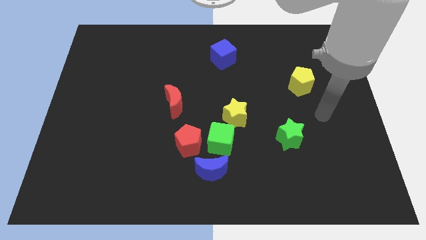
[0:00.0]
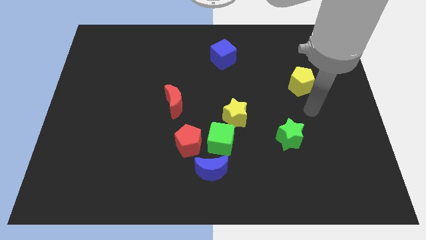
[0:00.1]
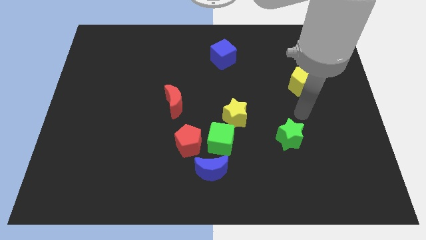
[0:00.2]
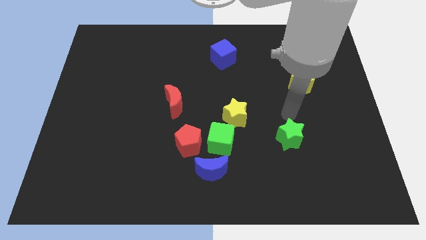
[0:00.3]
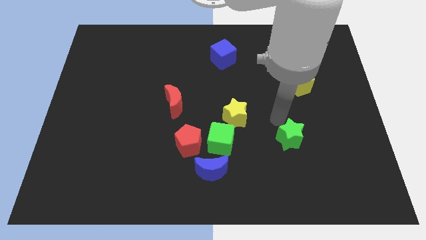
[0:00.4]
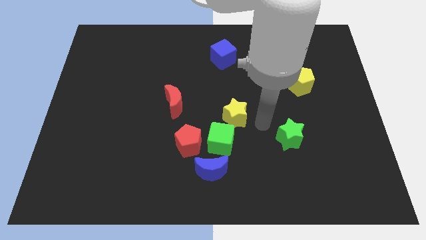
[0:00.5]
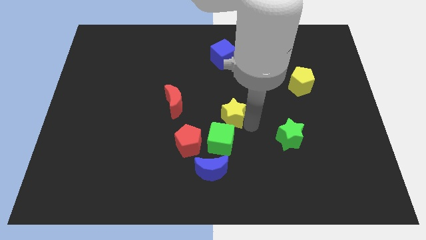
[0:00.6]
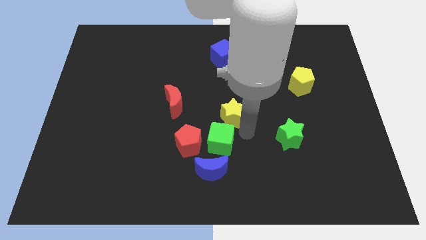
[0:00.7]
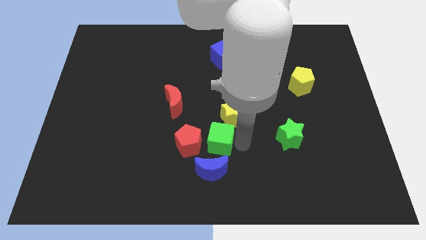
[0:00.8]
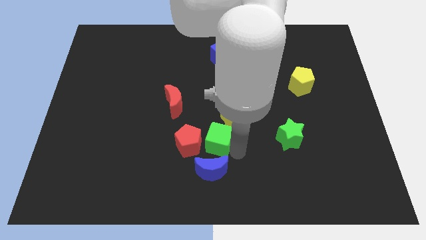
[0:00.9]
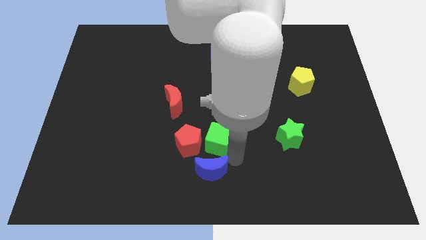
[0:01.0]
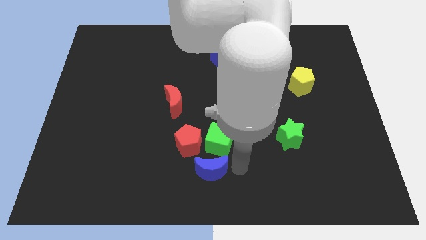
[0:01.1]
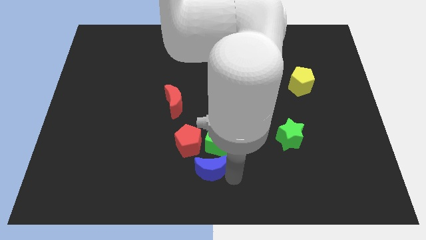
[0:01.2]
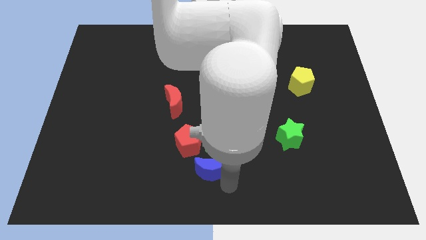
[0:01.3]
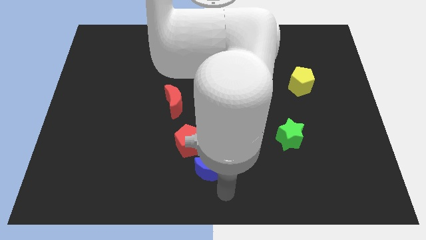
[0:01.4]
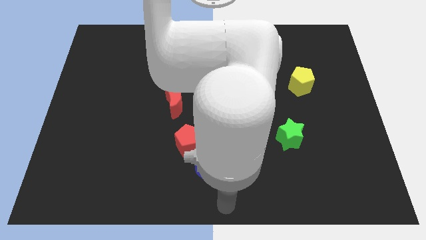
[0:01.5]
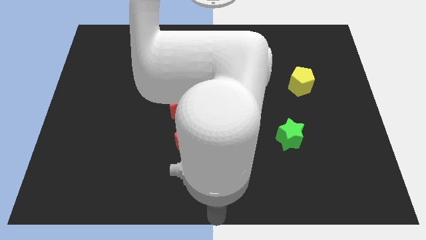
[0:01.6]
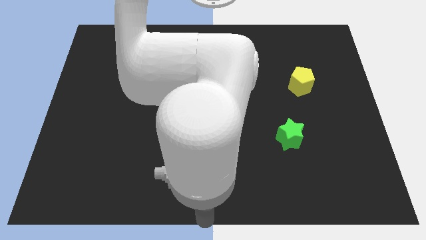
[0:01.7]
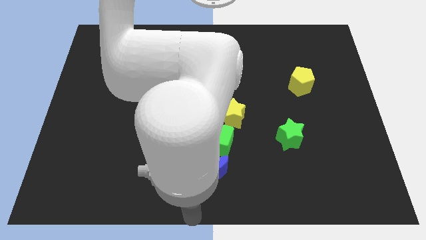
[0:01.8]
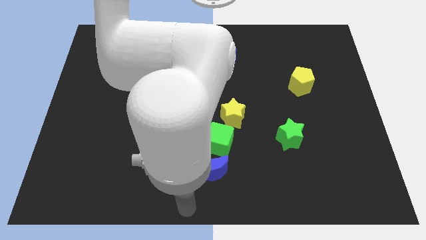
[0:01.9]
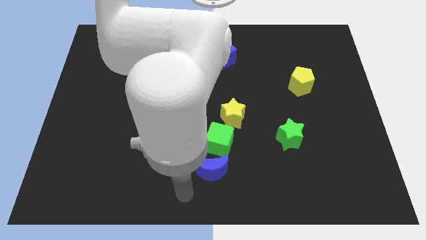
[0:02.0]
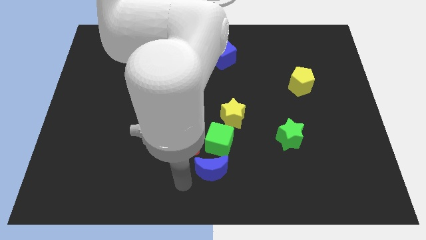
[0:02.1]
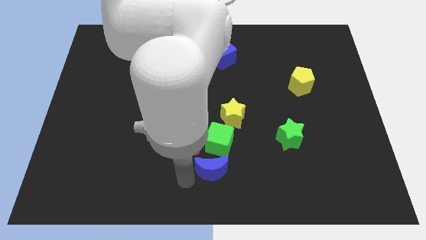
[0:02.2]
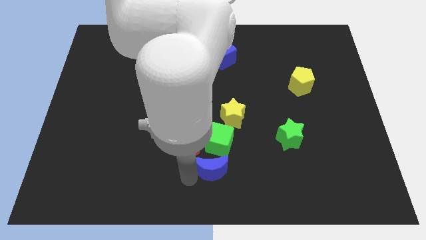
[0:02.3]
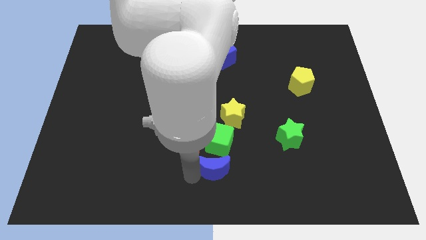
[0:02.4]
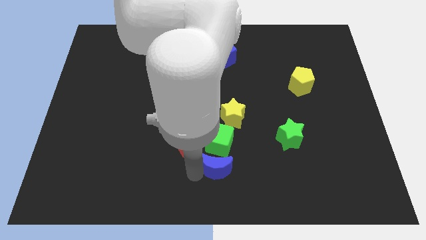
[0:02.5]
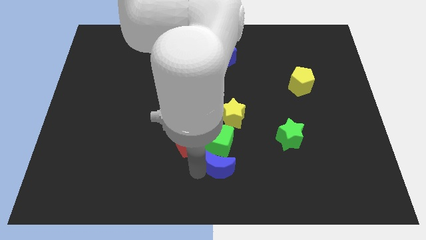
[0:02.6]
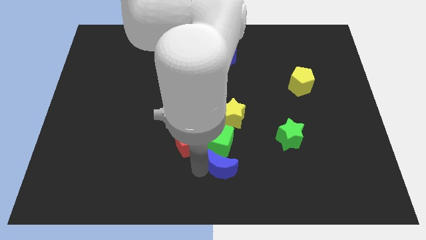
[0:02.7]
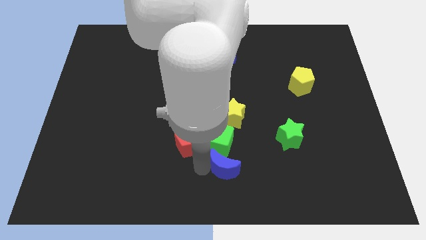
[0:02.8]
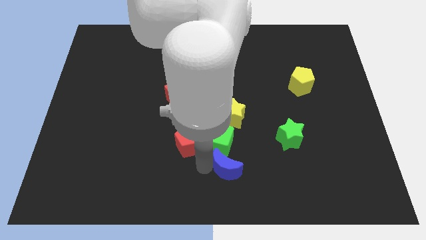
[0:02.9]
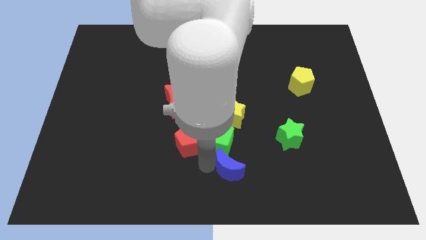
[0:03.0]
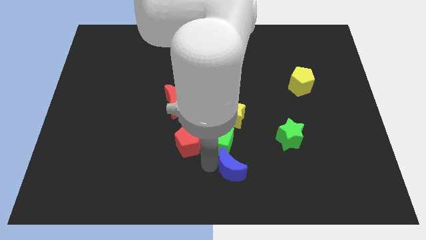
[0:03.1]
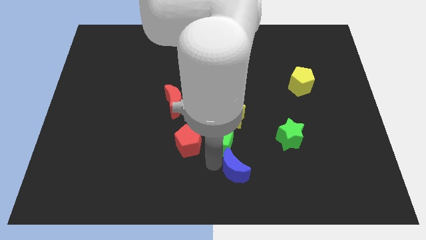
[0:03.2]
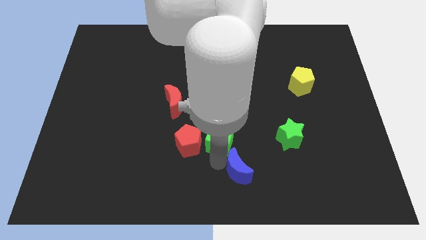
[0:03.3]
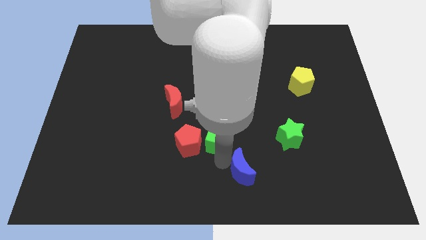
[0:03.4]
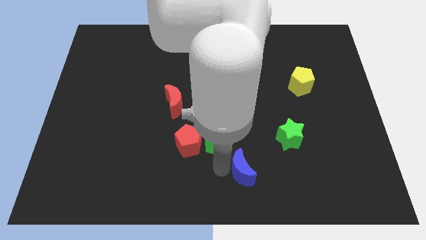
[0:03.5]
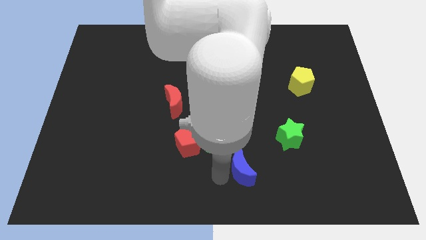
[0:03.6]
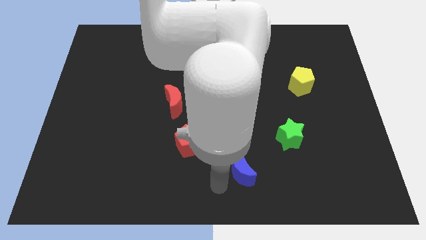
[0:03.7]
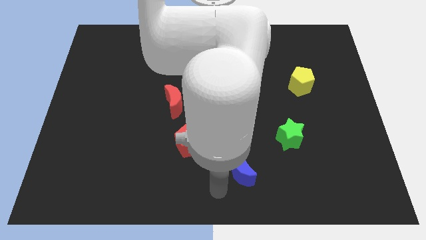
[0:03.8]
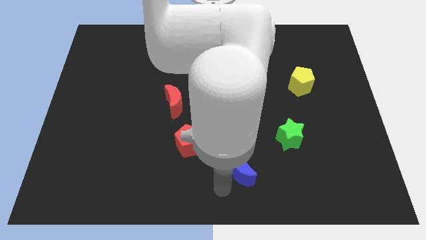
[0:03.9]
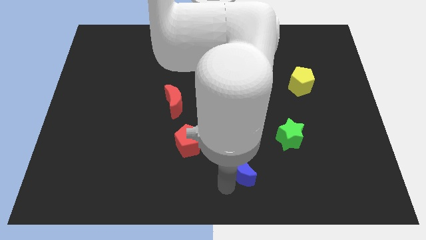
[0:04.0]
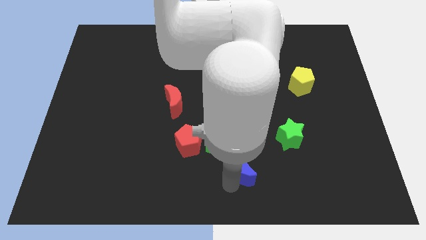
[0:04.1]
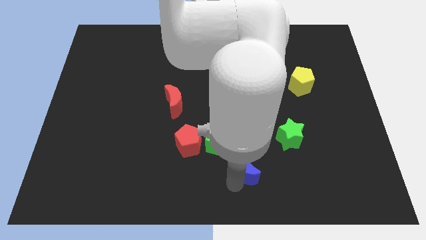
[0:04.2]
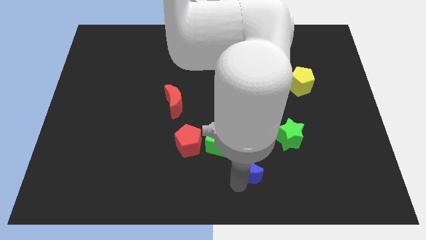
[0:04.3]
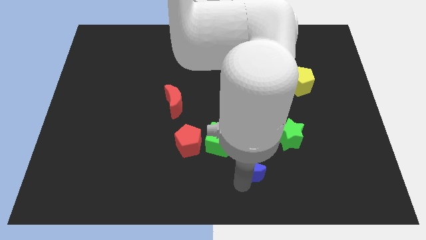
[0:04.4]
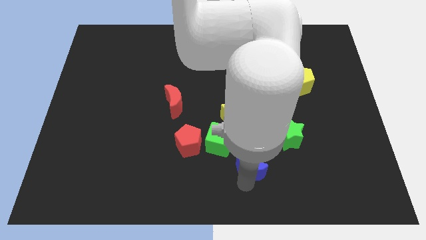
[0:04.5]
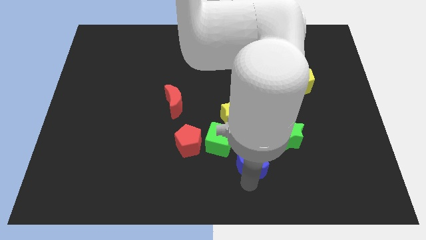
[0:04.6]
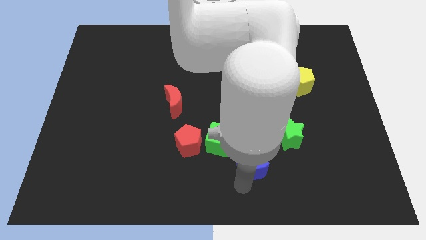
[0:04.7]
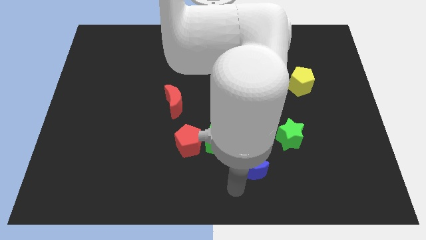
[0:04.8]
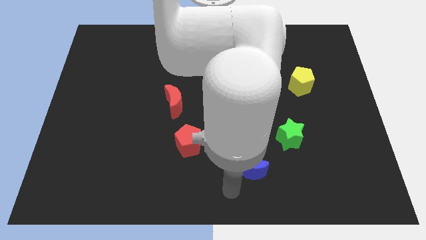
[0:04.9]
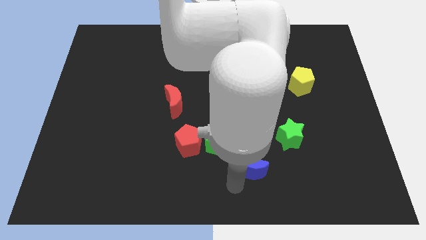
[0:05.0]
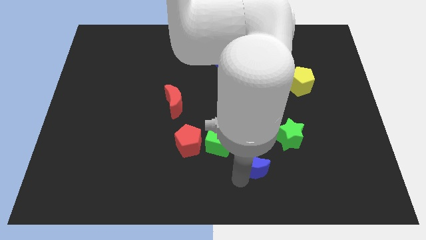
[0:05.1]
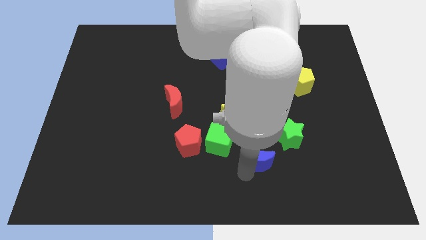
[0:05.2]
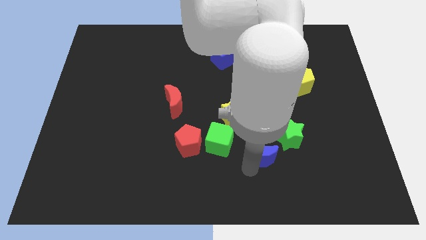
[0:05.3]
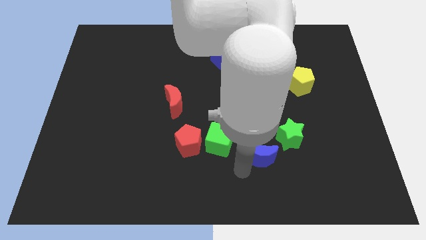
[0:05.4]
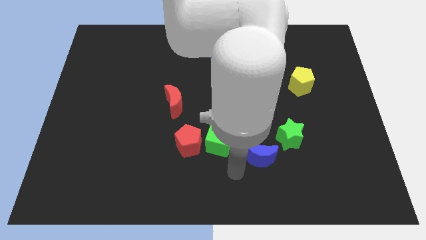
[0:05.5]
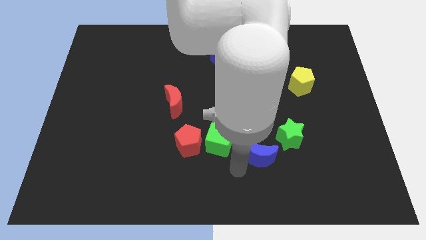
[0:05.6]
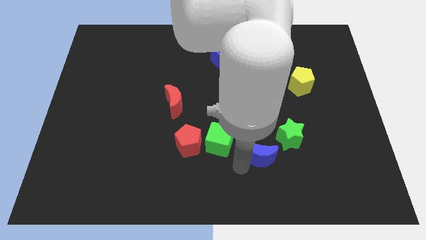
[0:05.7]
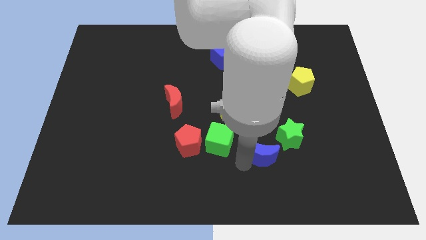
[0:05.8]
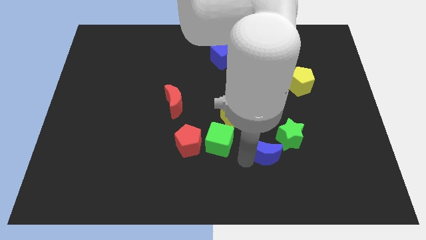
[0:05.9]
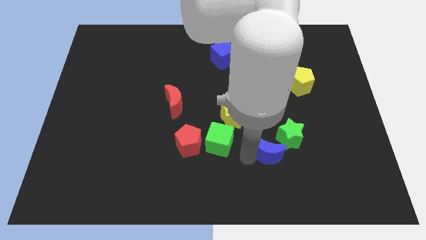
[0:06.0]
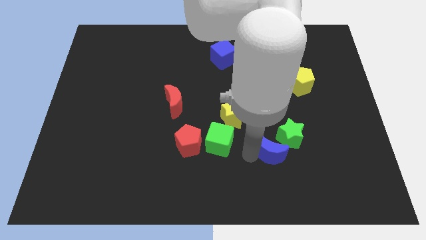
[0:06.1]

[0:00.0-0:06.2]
push the blue moon towards the green star

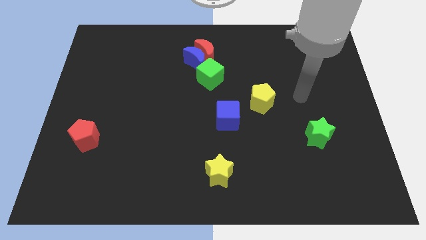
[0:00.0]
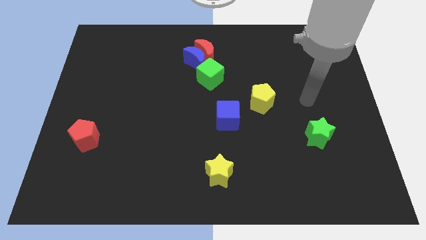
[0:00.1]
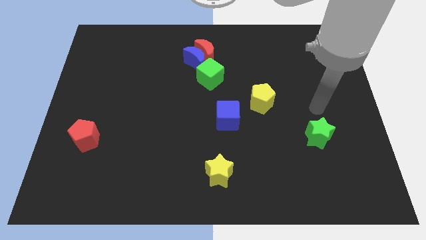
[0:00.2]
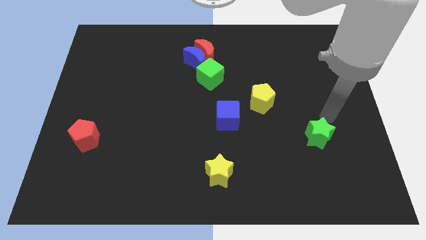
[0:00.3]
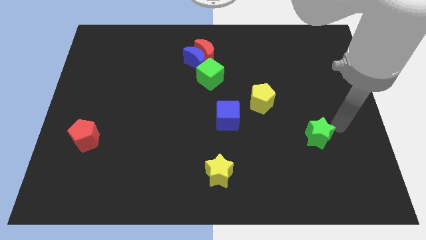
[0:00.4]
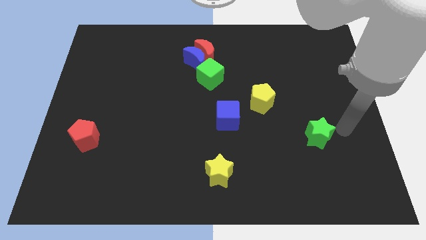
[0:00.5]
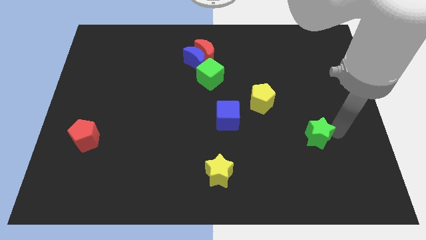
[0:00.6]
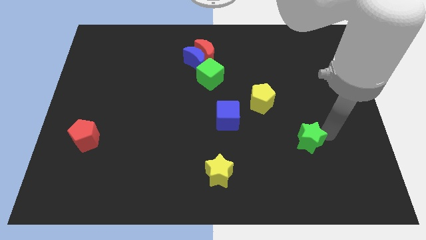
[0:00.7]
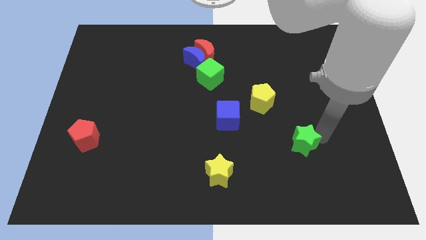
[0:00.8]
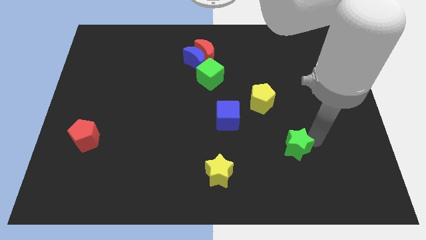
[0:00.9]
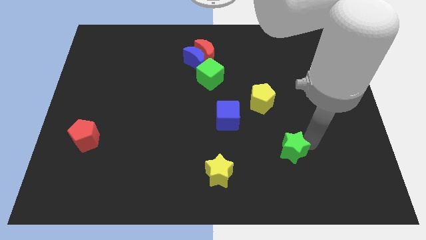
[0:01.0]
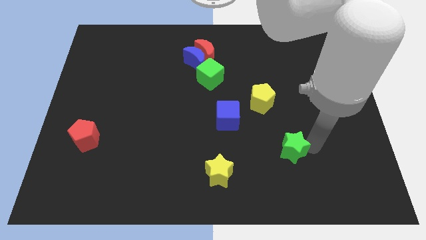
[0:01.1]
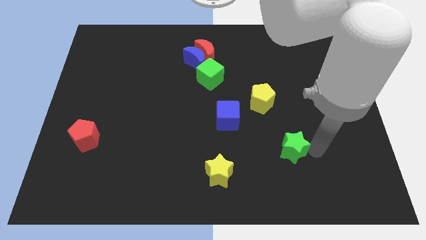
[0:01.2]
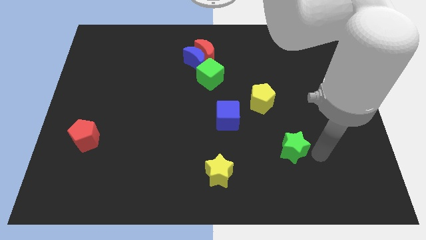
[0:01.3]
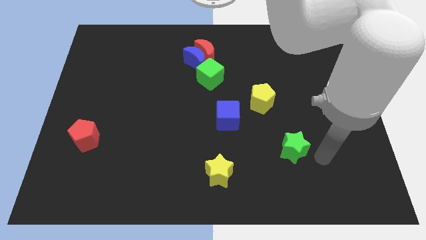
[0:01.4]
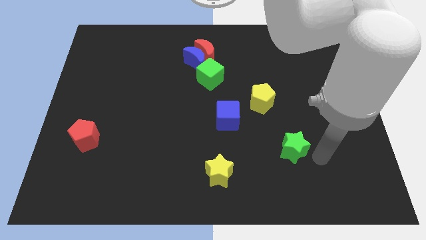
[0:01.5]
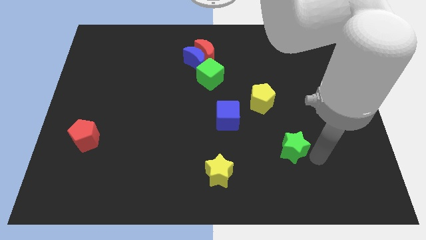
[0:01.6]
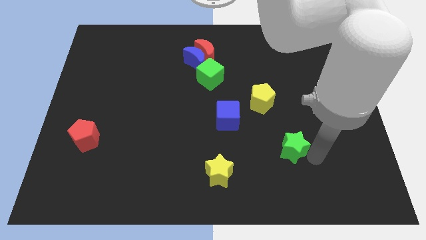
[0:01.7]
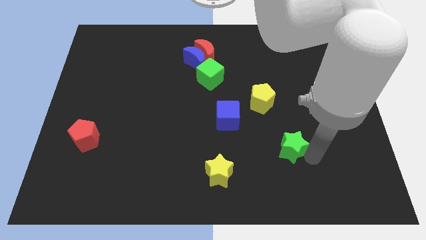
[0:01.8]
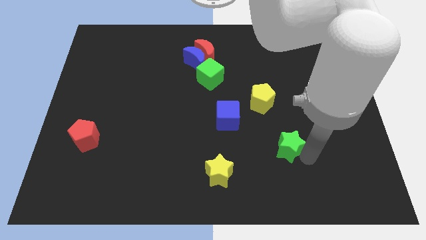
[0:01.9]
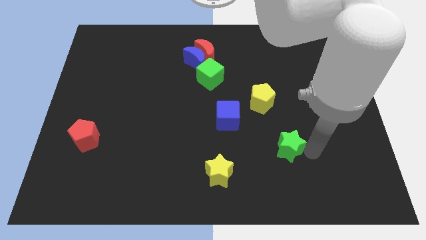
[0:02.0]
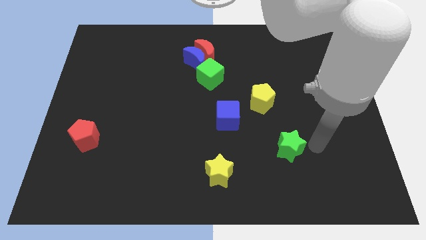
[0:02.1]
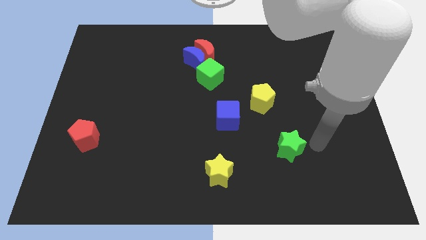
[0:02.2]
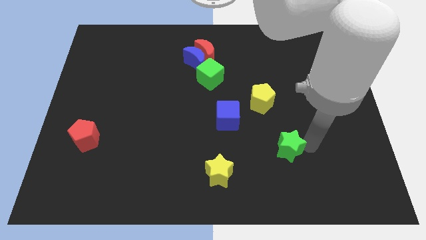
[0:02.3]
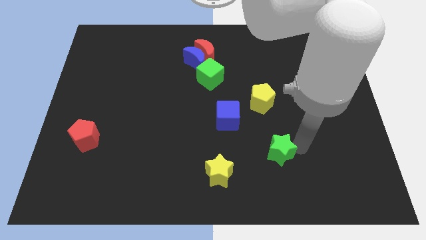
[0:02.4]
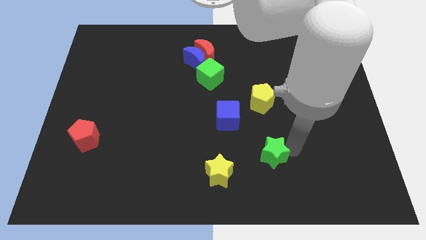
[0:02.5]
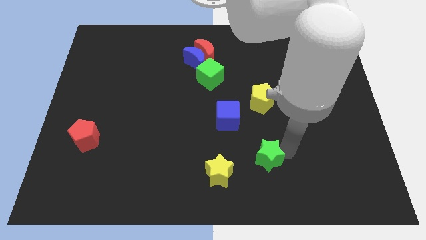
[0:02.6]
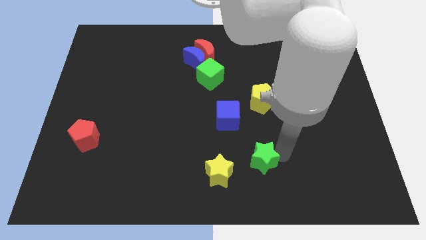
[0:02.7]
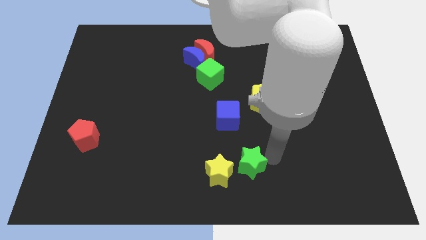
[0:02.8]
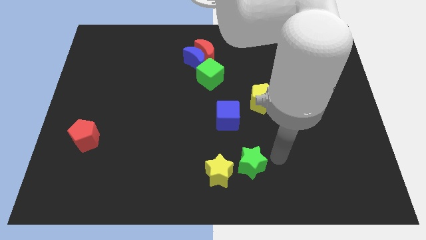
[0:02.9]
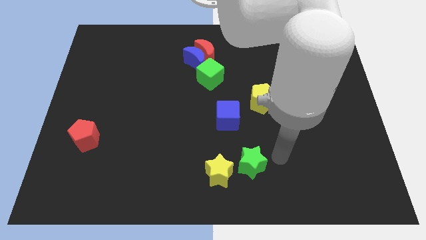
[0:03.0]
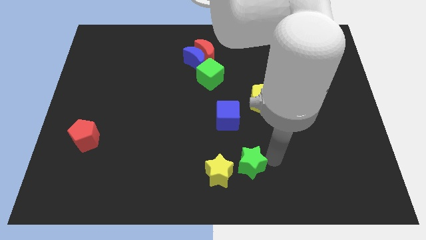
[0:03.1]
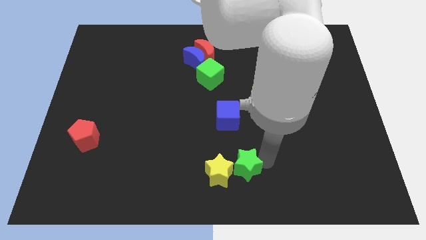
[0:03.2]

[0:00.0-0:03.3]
put the green star close to the yellow star
